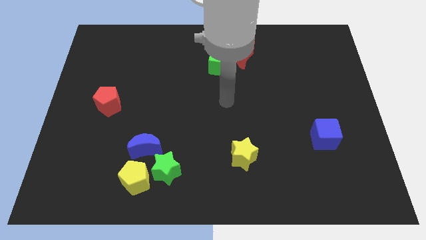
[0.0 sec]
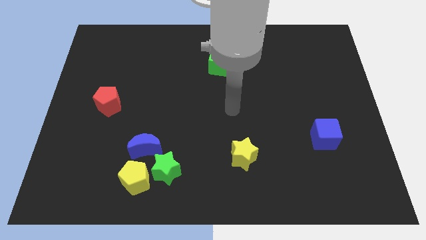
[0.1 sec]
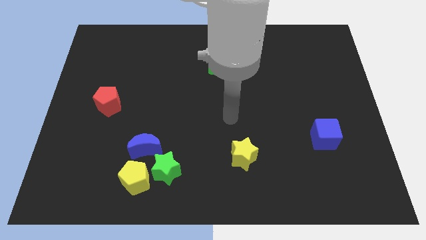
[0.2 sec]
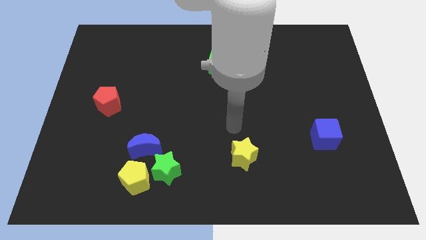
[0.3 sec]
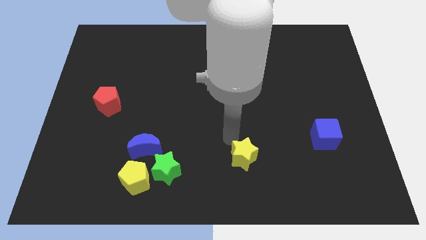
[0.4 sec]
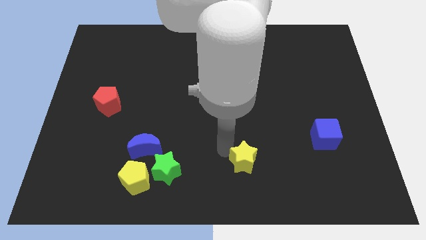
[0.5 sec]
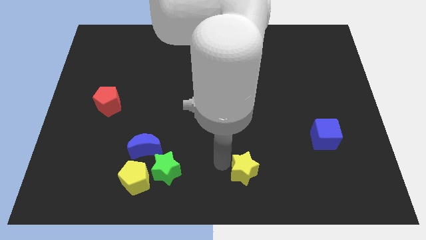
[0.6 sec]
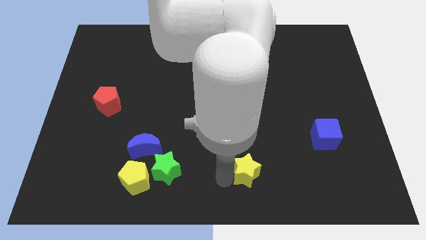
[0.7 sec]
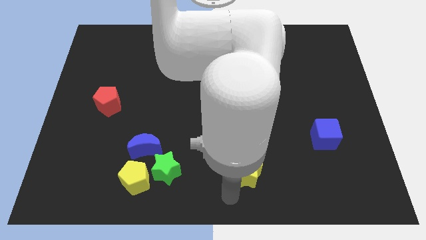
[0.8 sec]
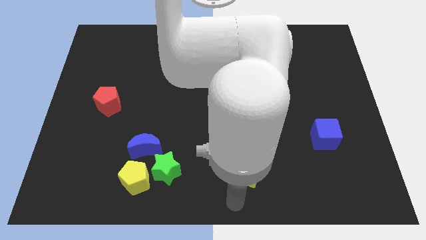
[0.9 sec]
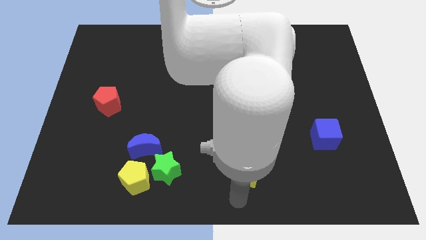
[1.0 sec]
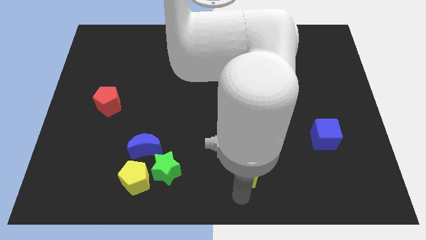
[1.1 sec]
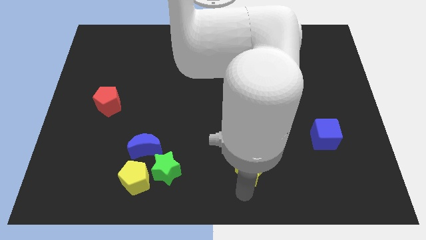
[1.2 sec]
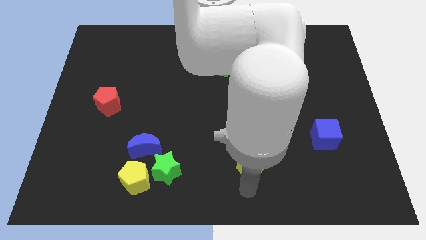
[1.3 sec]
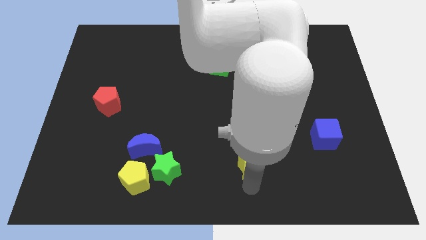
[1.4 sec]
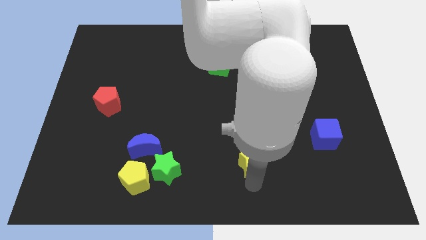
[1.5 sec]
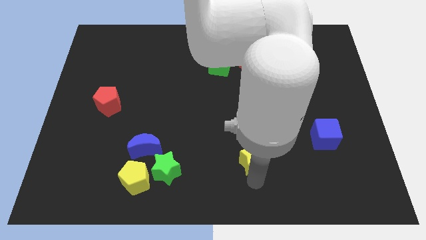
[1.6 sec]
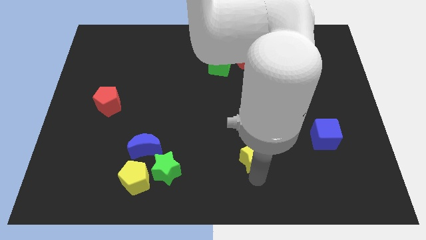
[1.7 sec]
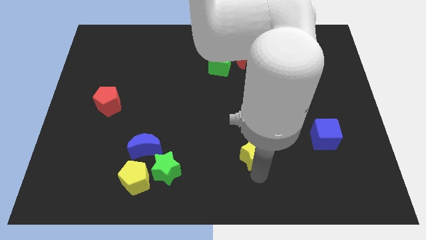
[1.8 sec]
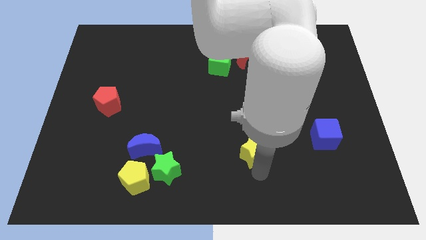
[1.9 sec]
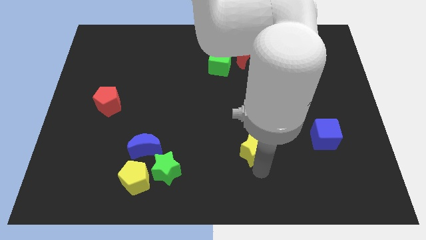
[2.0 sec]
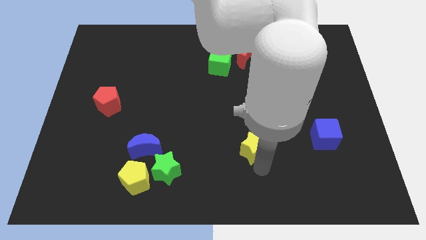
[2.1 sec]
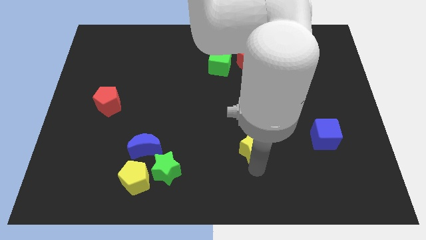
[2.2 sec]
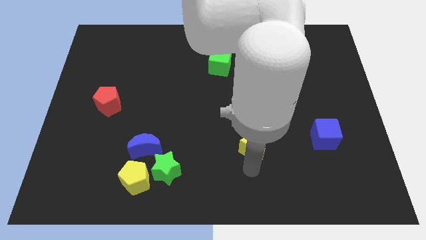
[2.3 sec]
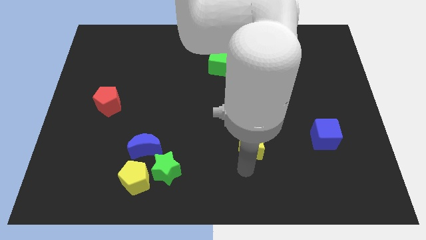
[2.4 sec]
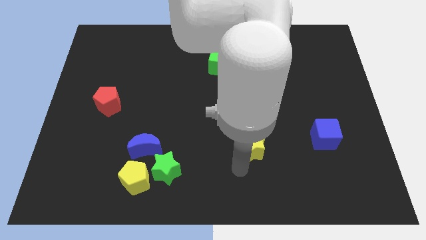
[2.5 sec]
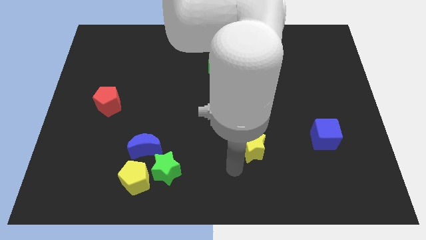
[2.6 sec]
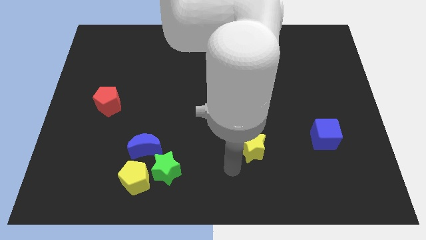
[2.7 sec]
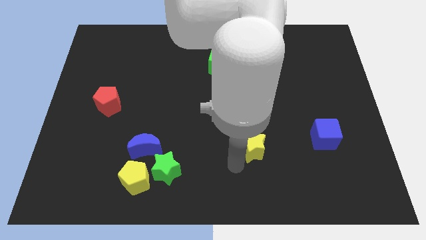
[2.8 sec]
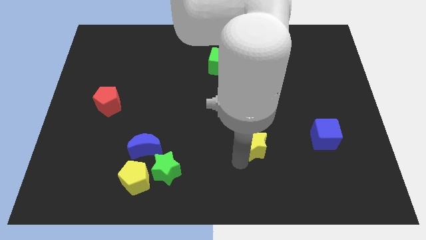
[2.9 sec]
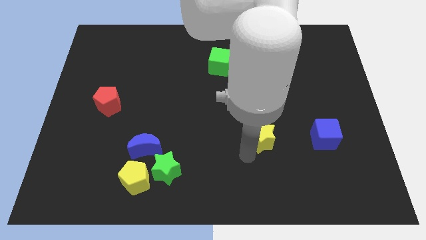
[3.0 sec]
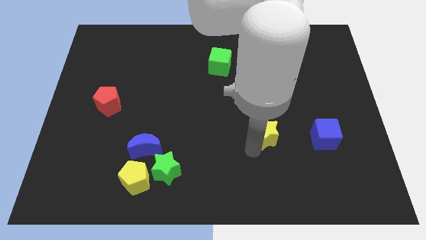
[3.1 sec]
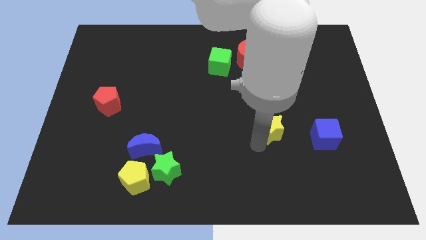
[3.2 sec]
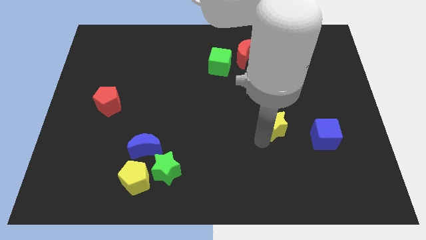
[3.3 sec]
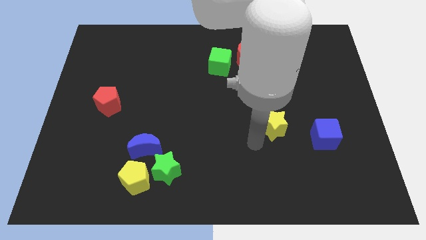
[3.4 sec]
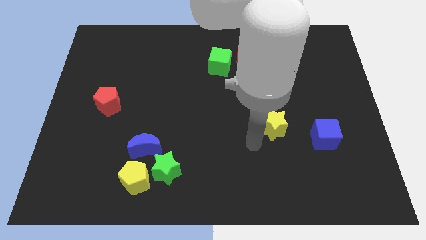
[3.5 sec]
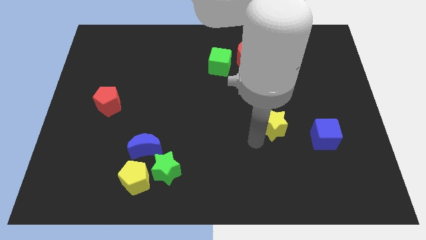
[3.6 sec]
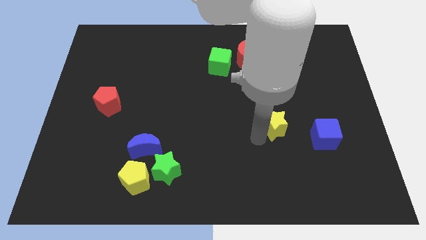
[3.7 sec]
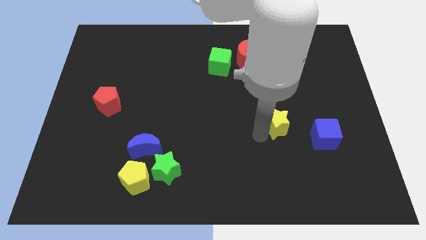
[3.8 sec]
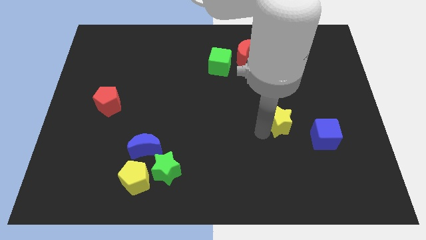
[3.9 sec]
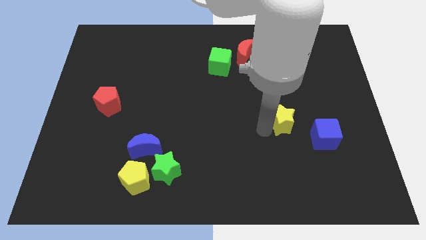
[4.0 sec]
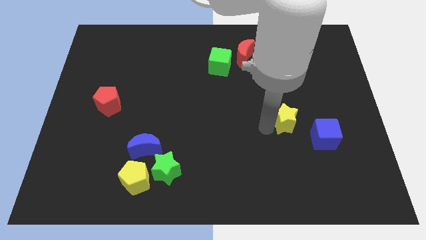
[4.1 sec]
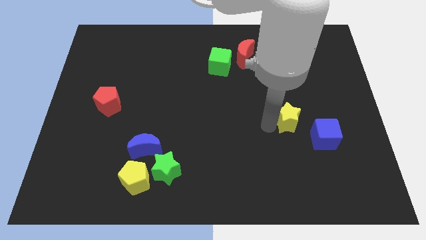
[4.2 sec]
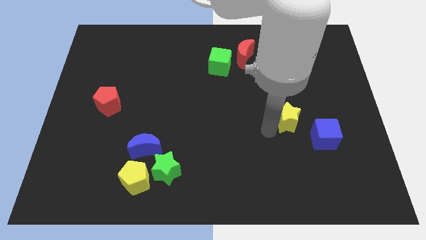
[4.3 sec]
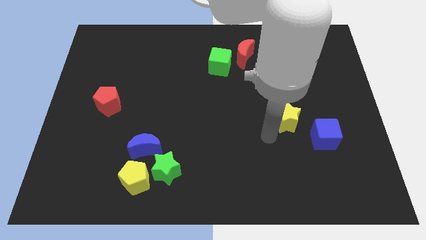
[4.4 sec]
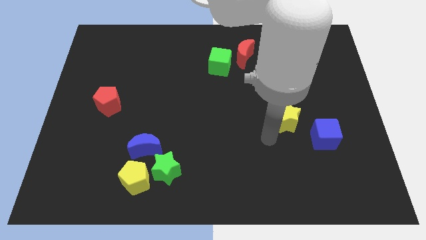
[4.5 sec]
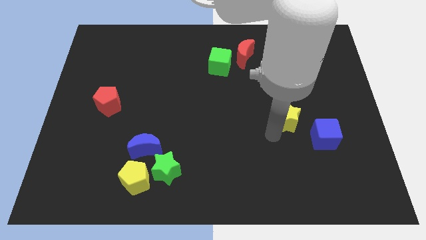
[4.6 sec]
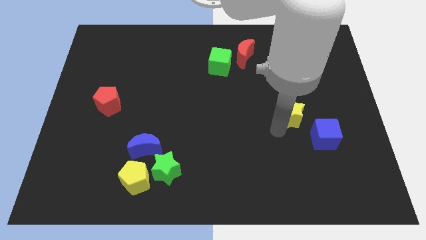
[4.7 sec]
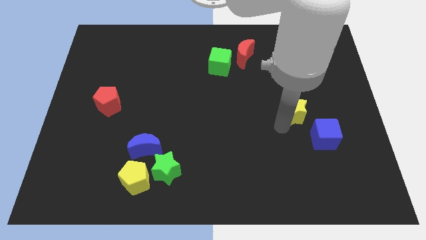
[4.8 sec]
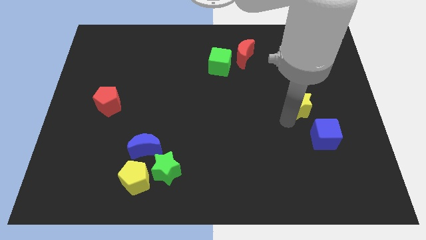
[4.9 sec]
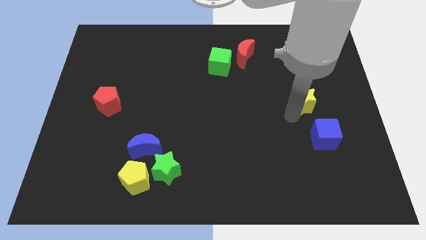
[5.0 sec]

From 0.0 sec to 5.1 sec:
push the yellow star upwards and right

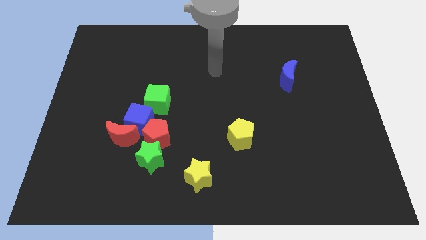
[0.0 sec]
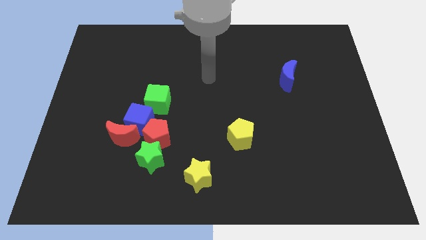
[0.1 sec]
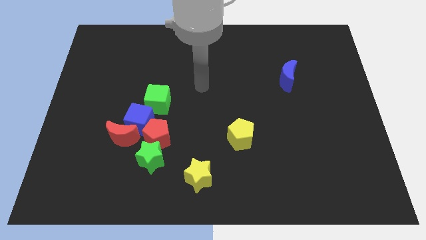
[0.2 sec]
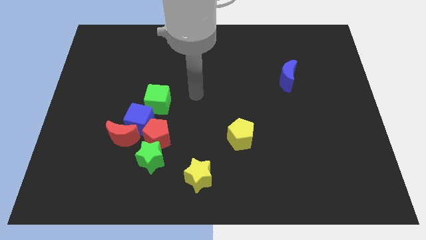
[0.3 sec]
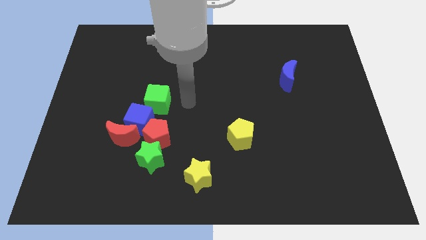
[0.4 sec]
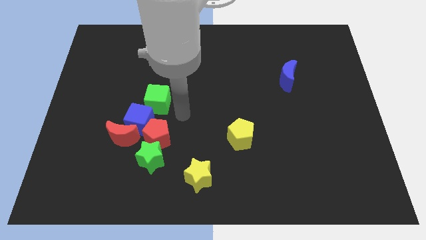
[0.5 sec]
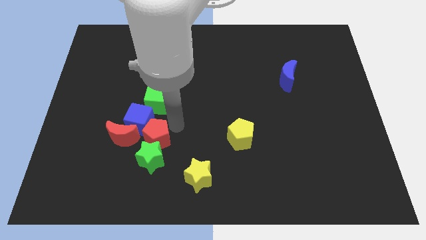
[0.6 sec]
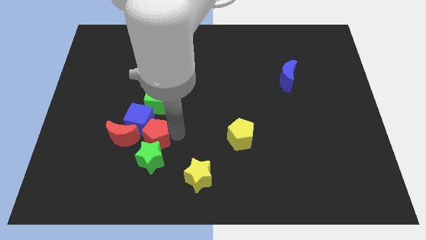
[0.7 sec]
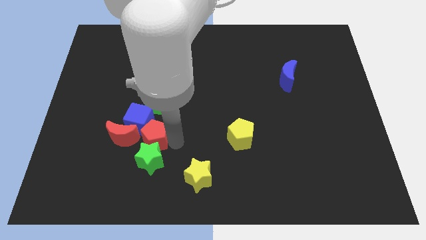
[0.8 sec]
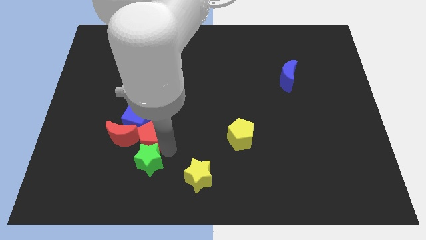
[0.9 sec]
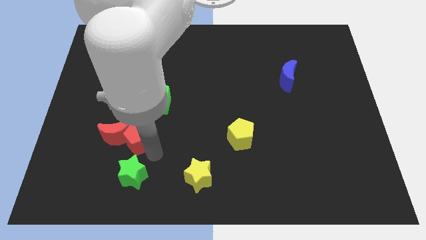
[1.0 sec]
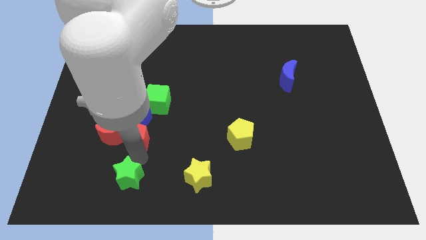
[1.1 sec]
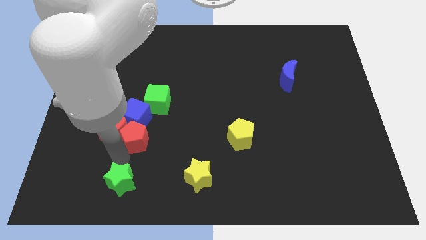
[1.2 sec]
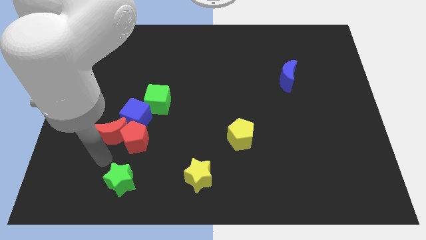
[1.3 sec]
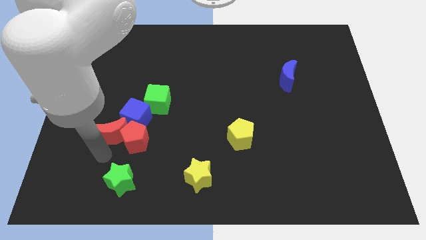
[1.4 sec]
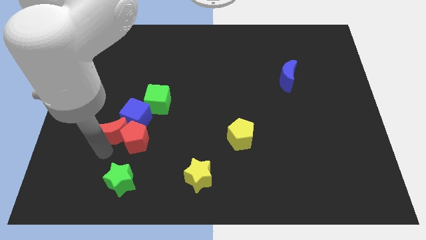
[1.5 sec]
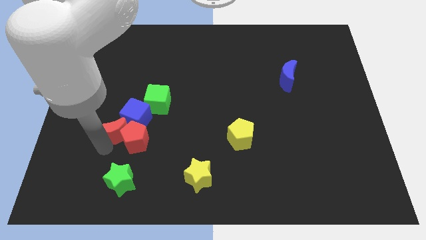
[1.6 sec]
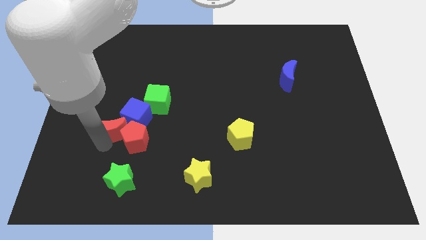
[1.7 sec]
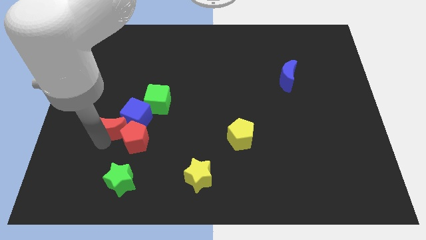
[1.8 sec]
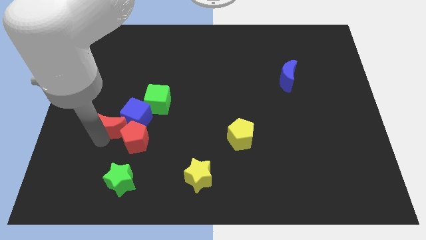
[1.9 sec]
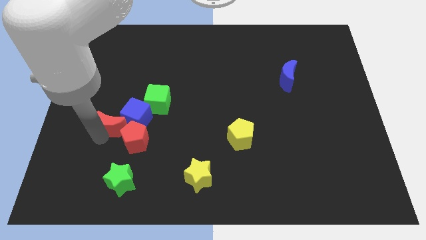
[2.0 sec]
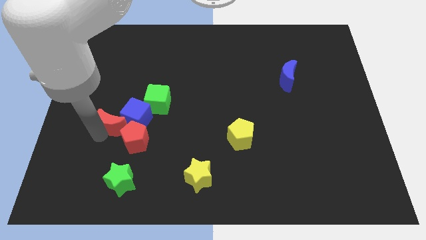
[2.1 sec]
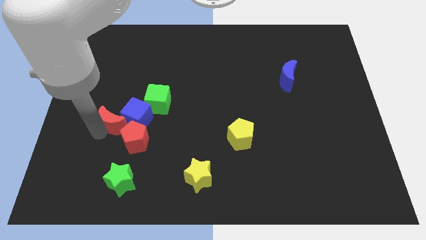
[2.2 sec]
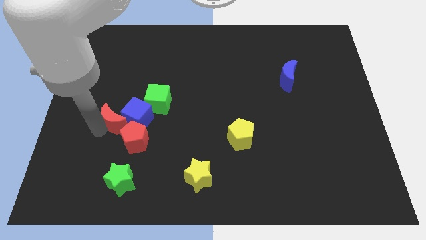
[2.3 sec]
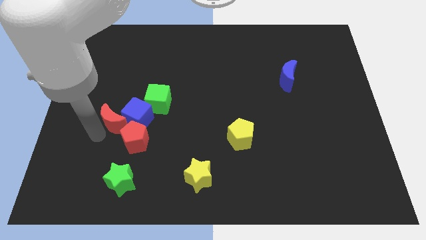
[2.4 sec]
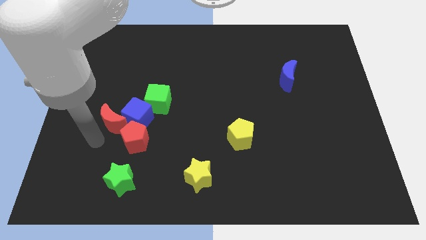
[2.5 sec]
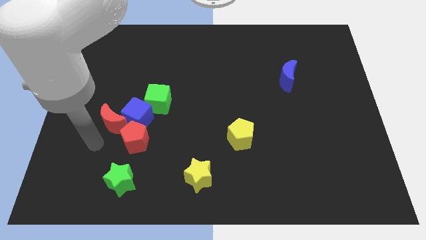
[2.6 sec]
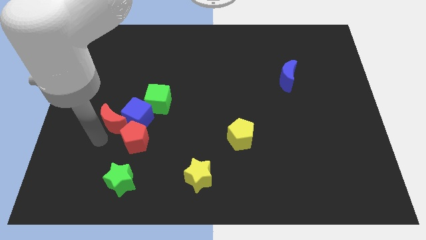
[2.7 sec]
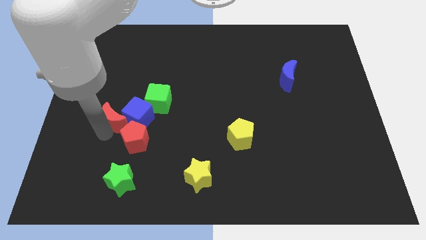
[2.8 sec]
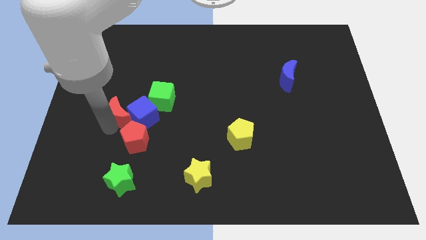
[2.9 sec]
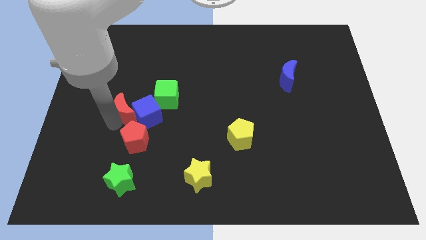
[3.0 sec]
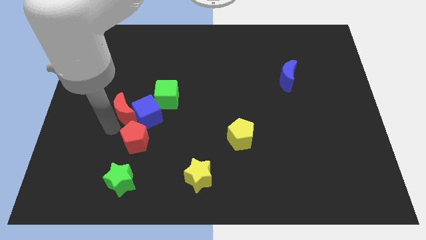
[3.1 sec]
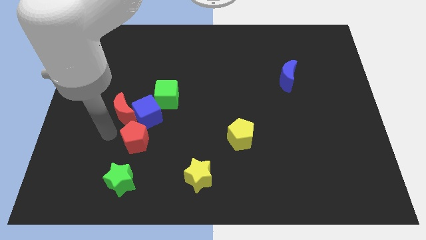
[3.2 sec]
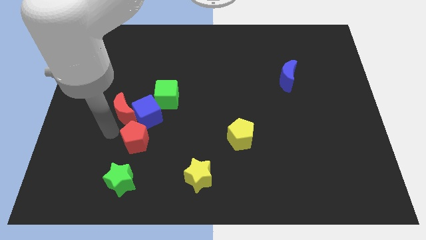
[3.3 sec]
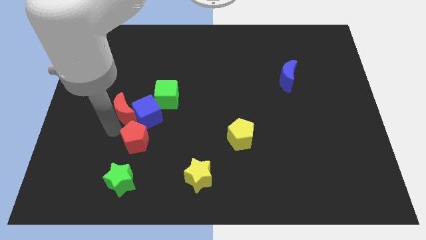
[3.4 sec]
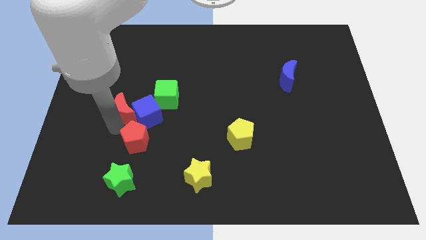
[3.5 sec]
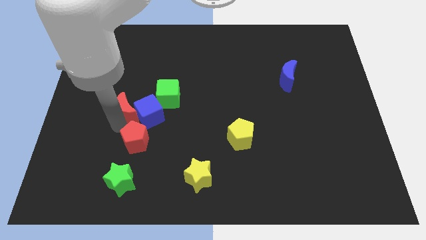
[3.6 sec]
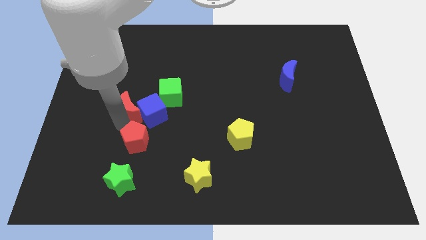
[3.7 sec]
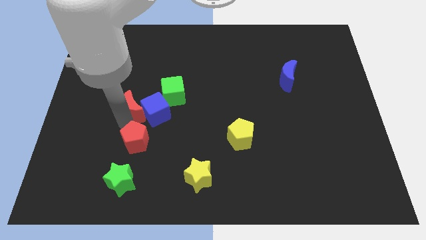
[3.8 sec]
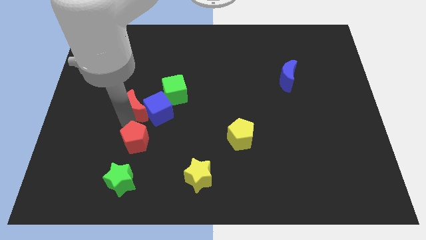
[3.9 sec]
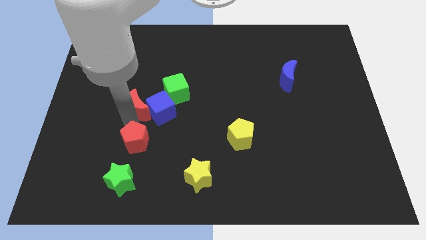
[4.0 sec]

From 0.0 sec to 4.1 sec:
push the red moon diagonally up and to the right slightly
